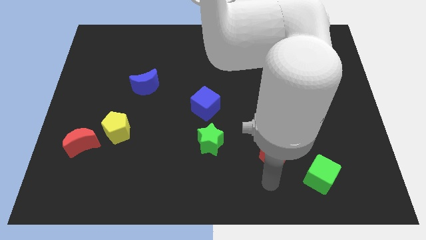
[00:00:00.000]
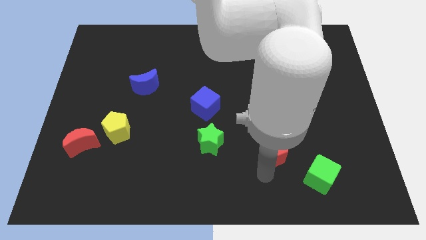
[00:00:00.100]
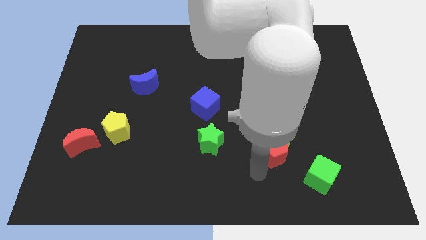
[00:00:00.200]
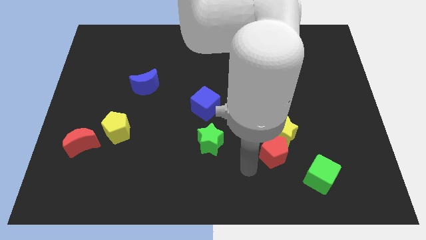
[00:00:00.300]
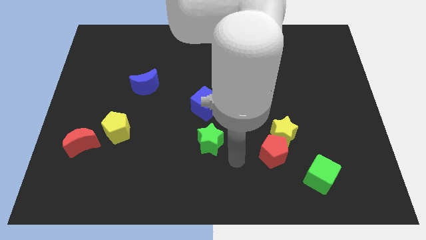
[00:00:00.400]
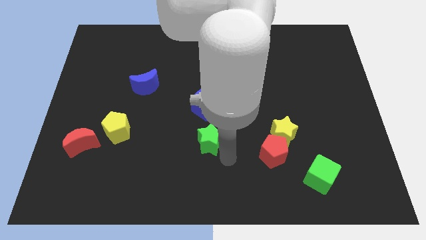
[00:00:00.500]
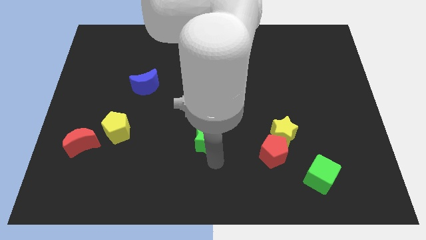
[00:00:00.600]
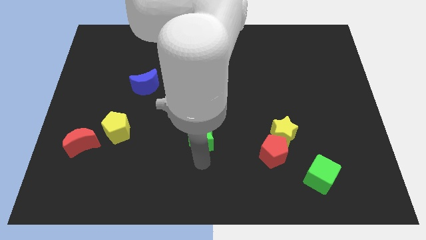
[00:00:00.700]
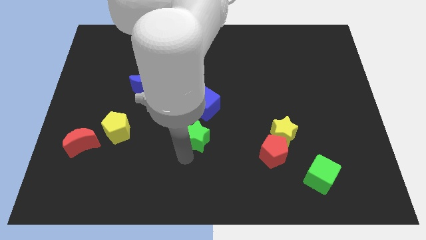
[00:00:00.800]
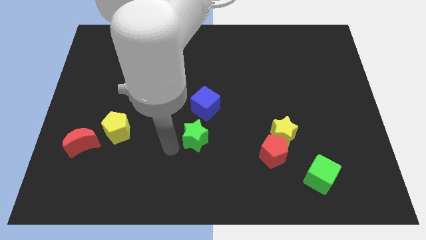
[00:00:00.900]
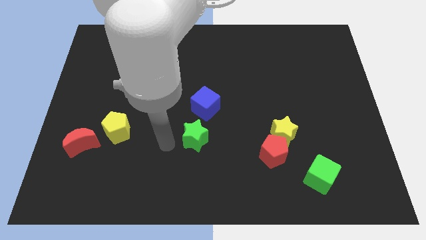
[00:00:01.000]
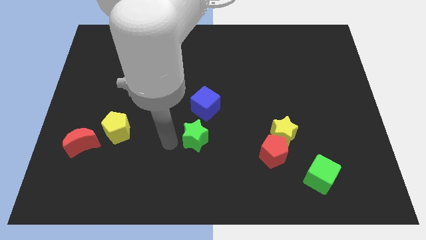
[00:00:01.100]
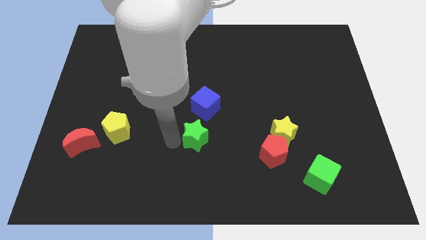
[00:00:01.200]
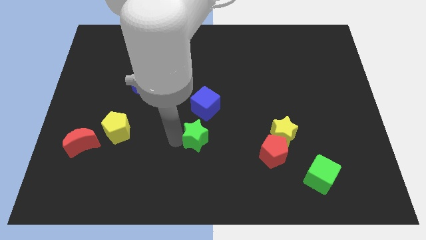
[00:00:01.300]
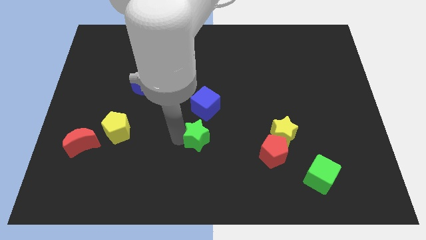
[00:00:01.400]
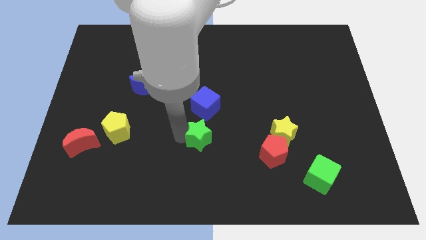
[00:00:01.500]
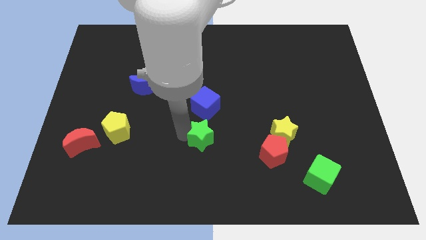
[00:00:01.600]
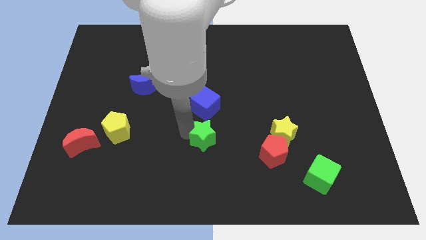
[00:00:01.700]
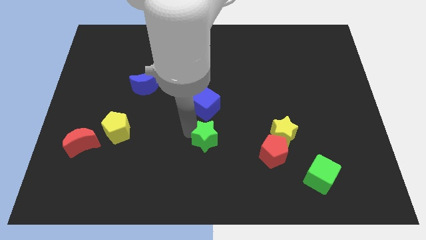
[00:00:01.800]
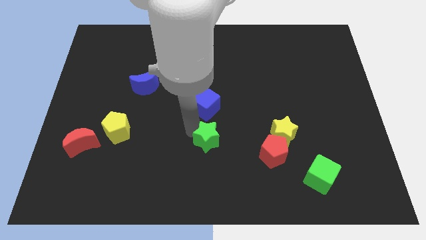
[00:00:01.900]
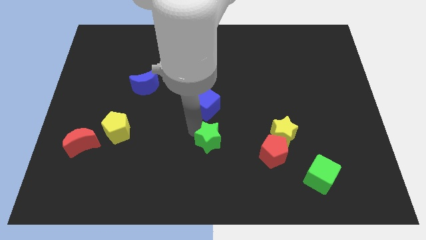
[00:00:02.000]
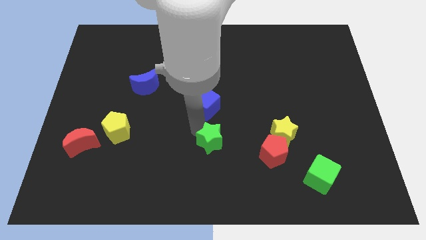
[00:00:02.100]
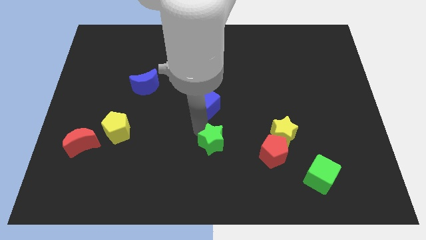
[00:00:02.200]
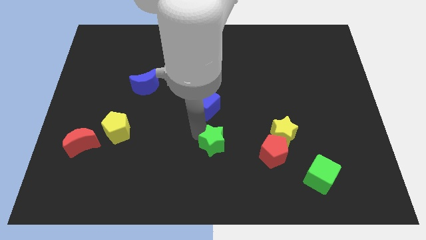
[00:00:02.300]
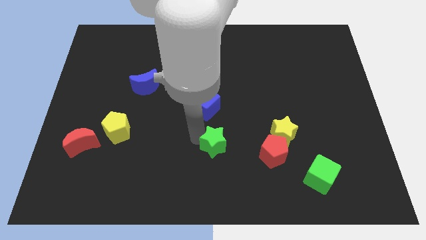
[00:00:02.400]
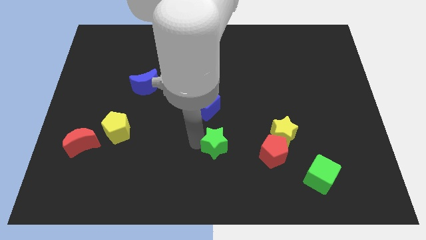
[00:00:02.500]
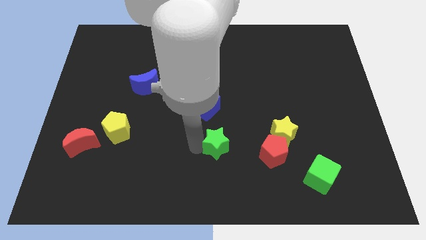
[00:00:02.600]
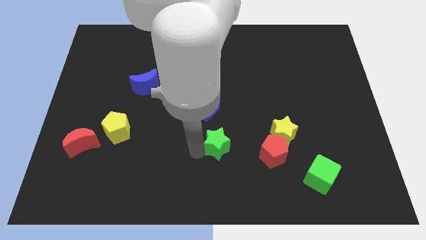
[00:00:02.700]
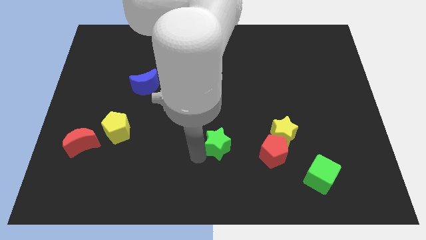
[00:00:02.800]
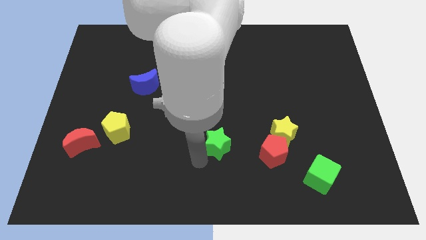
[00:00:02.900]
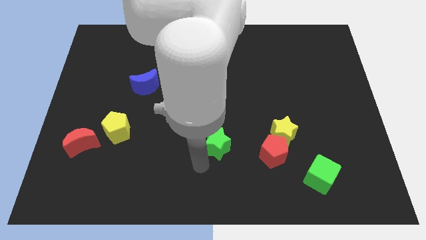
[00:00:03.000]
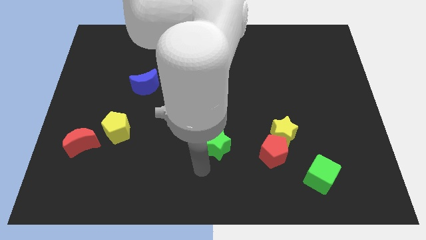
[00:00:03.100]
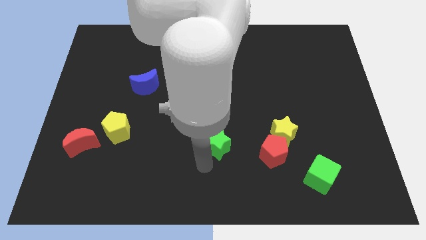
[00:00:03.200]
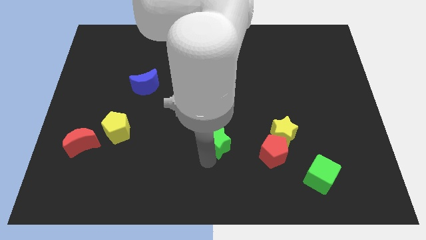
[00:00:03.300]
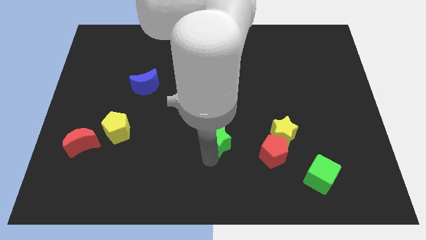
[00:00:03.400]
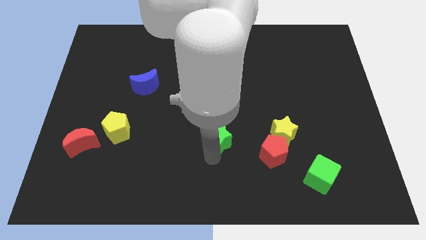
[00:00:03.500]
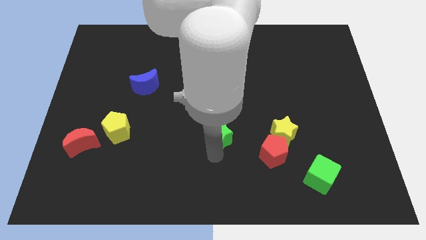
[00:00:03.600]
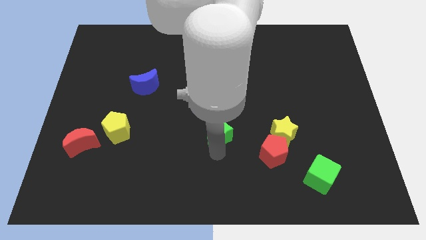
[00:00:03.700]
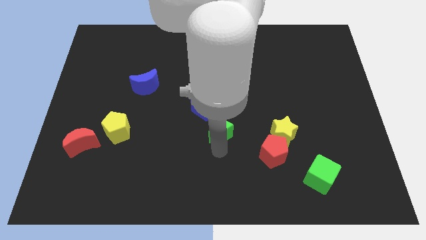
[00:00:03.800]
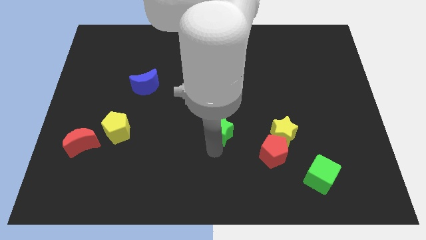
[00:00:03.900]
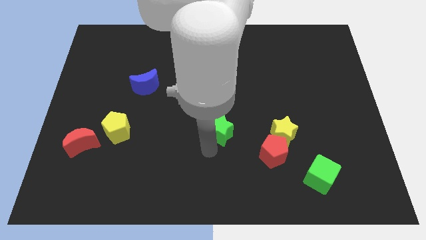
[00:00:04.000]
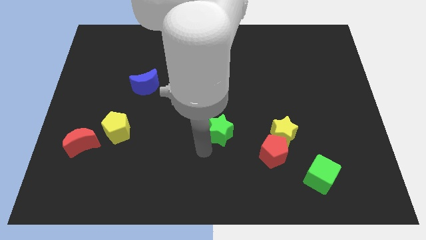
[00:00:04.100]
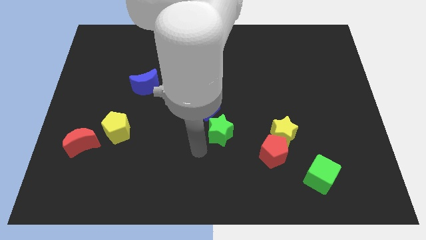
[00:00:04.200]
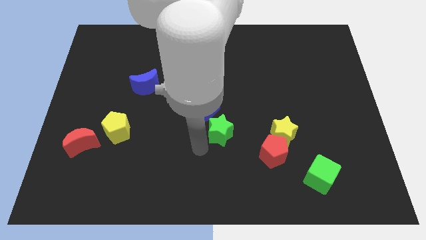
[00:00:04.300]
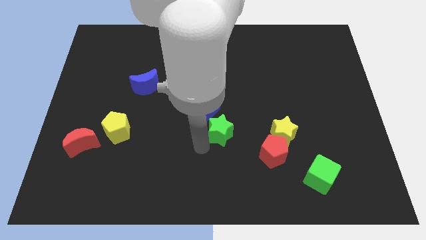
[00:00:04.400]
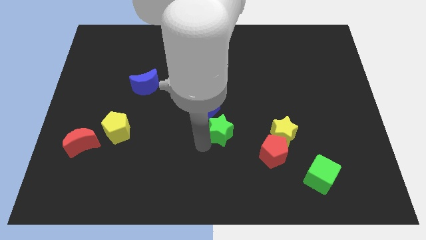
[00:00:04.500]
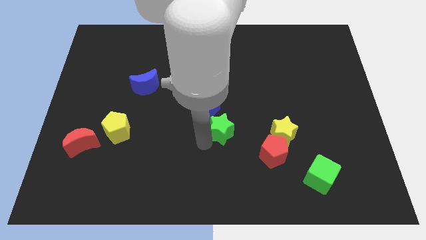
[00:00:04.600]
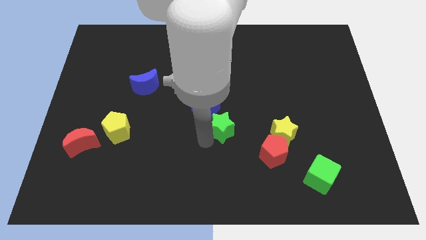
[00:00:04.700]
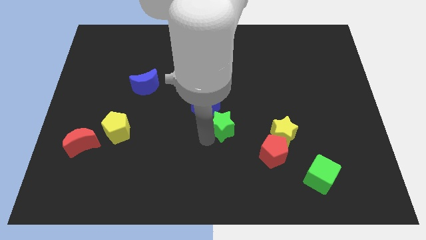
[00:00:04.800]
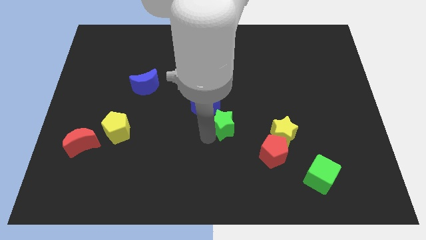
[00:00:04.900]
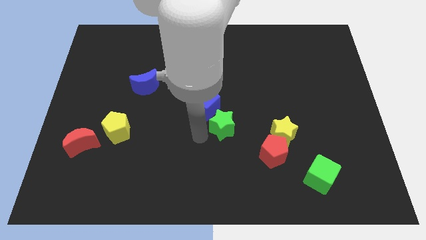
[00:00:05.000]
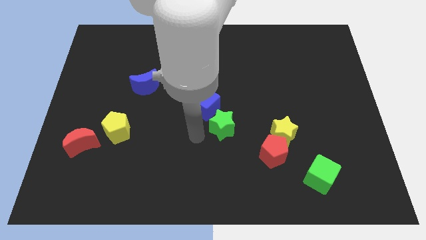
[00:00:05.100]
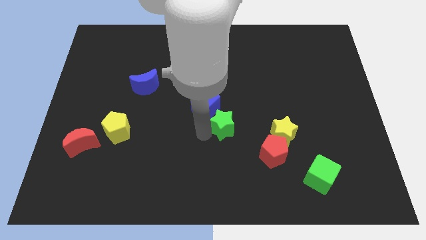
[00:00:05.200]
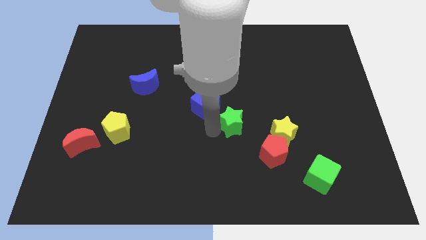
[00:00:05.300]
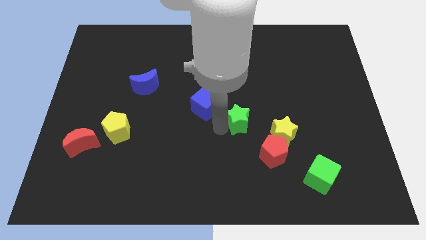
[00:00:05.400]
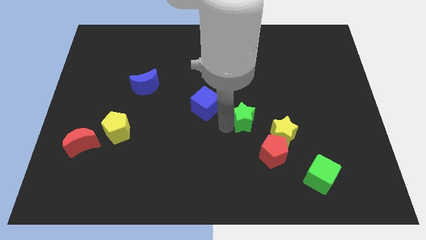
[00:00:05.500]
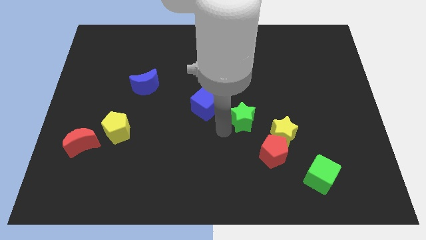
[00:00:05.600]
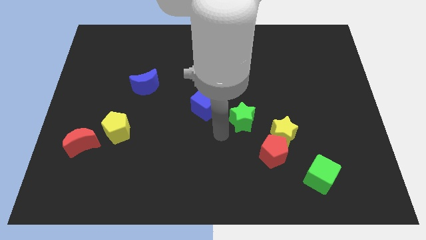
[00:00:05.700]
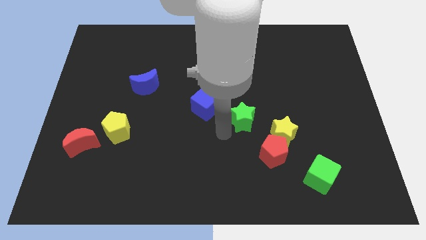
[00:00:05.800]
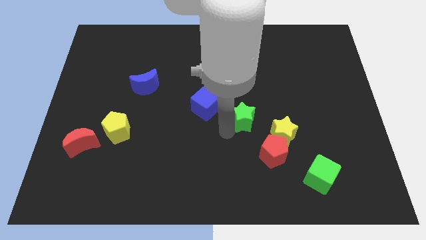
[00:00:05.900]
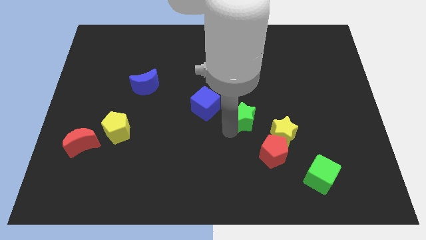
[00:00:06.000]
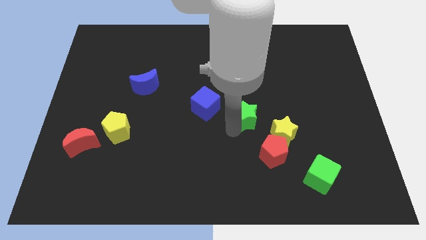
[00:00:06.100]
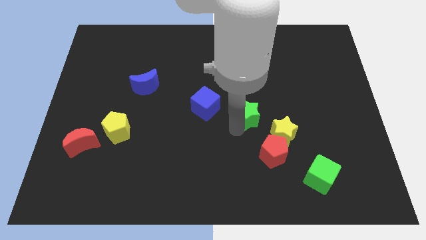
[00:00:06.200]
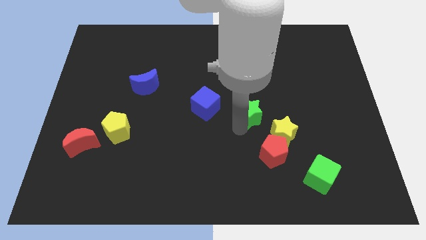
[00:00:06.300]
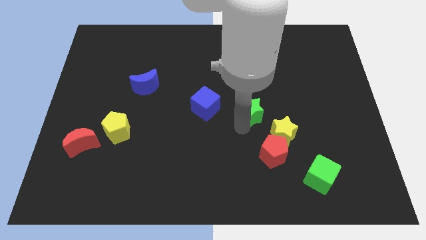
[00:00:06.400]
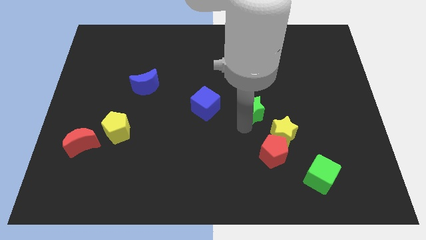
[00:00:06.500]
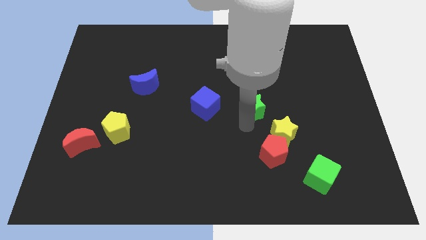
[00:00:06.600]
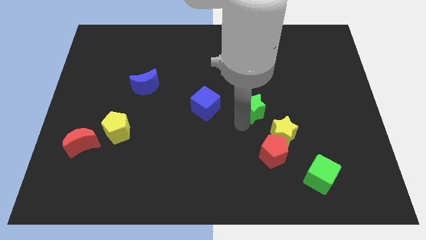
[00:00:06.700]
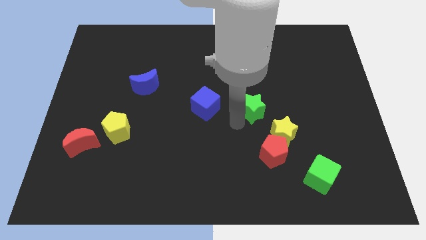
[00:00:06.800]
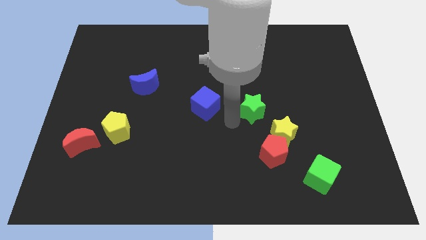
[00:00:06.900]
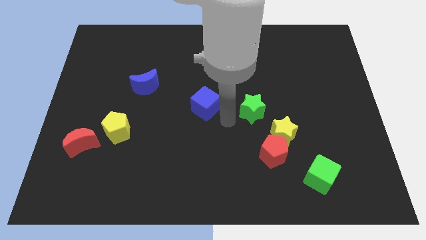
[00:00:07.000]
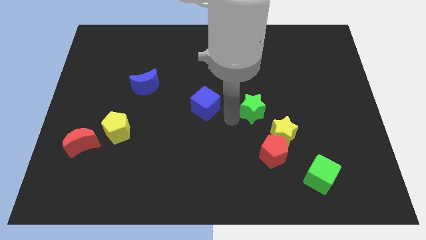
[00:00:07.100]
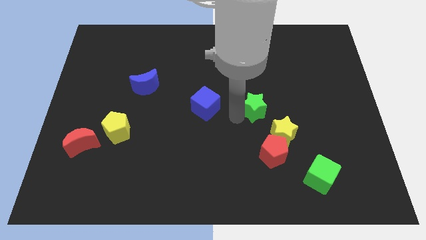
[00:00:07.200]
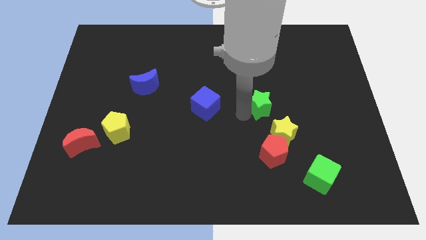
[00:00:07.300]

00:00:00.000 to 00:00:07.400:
push the green star to the top side of the yellow star
